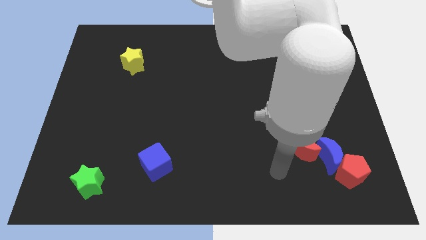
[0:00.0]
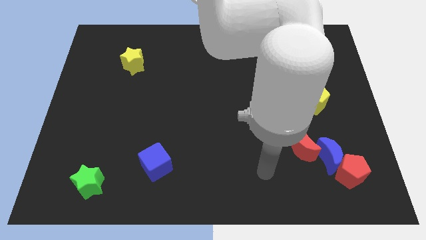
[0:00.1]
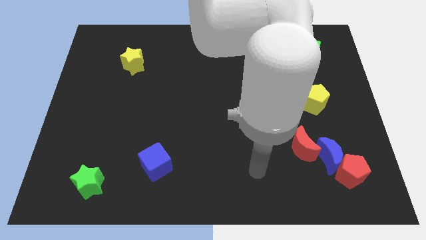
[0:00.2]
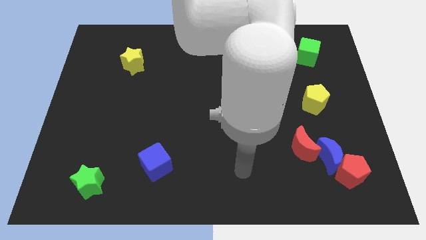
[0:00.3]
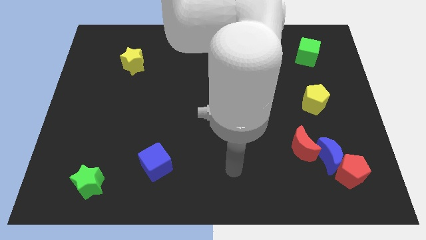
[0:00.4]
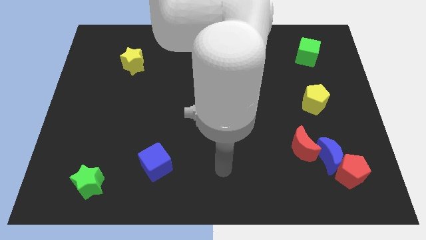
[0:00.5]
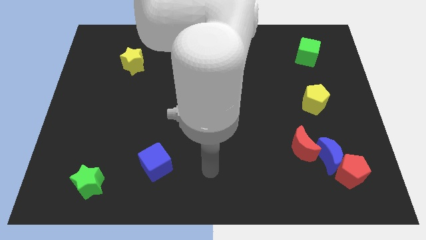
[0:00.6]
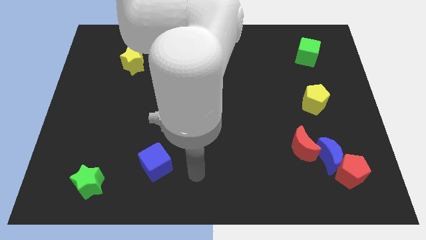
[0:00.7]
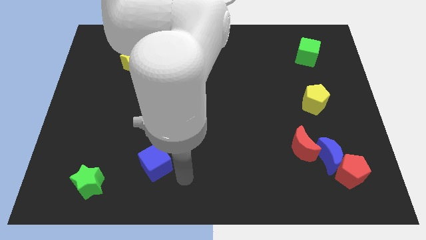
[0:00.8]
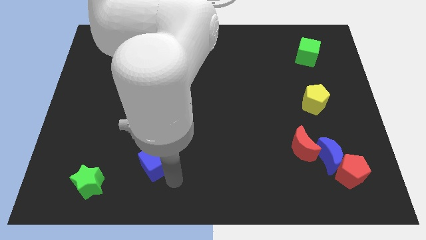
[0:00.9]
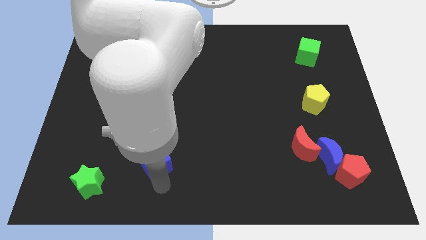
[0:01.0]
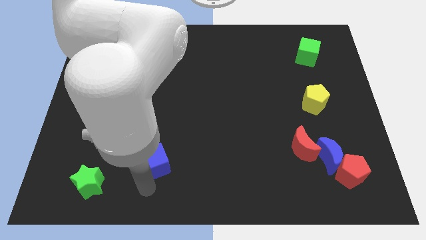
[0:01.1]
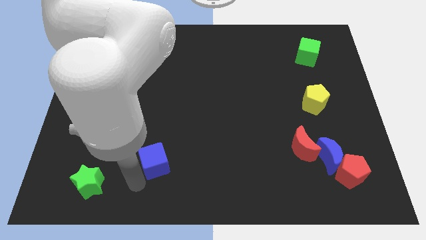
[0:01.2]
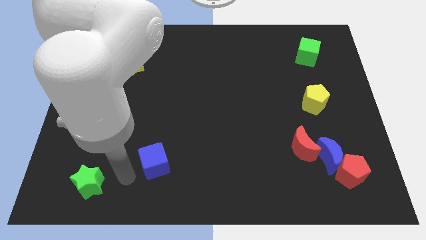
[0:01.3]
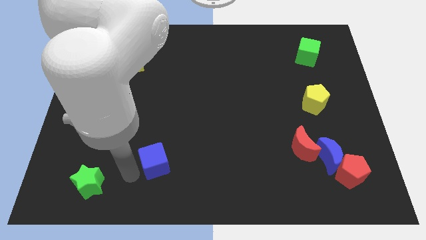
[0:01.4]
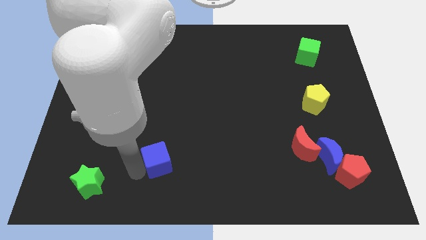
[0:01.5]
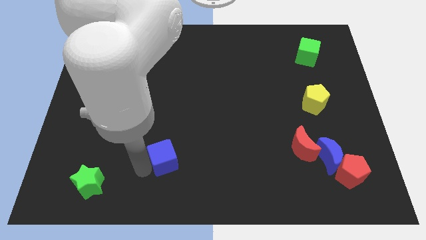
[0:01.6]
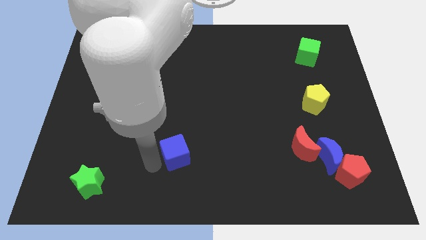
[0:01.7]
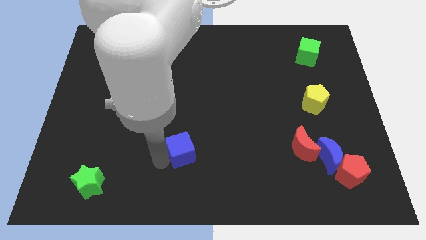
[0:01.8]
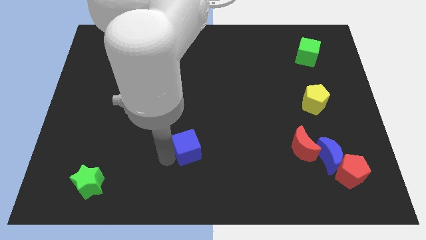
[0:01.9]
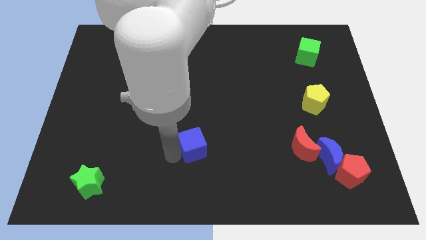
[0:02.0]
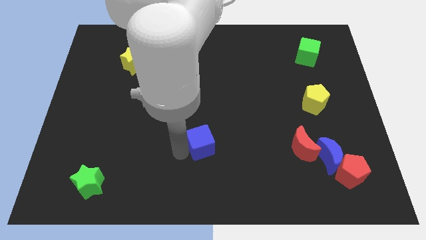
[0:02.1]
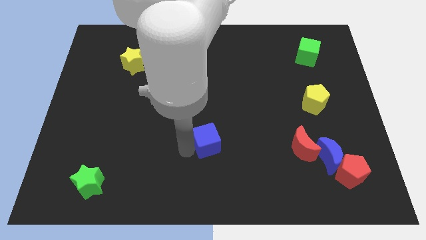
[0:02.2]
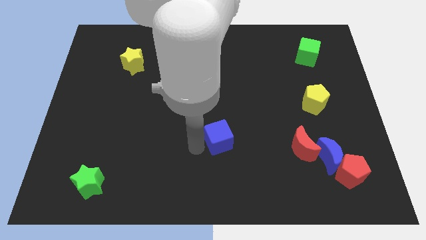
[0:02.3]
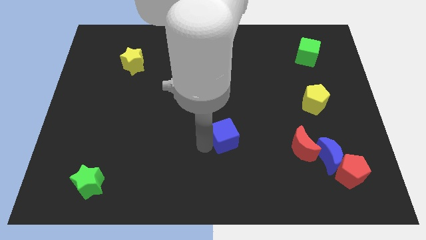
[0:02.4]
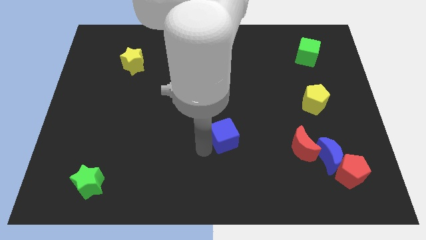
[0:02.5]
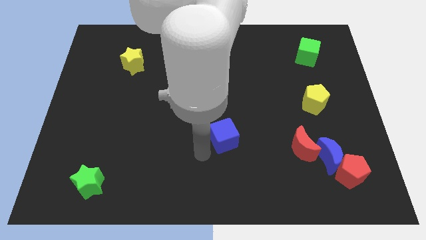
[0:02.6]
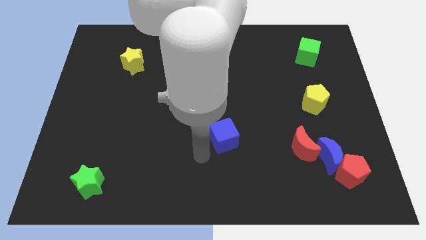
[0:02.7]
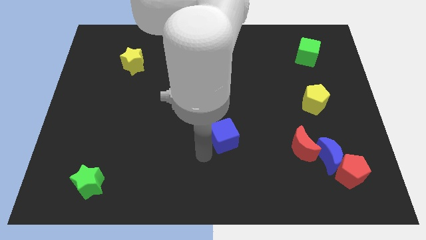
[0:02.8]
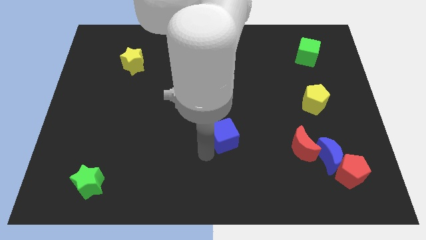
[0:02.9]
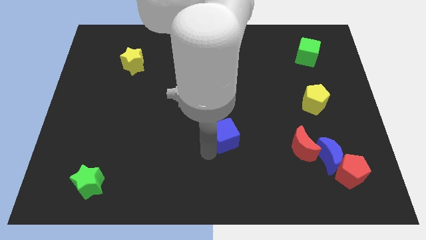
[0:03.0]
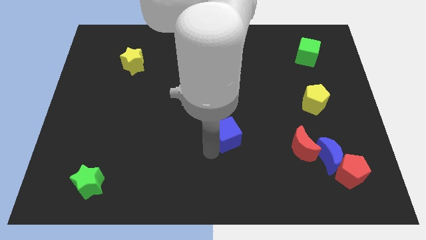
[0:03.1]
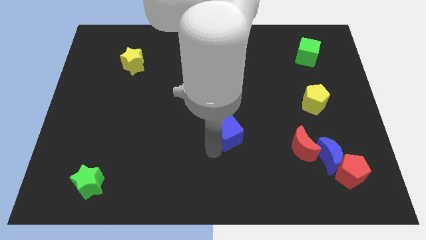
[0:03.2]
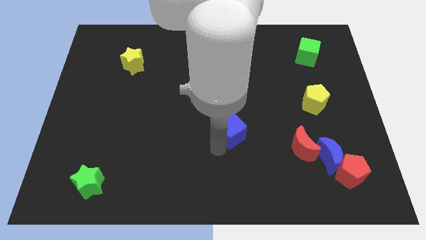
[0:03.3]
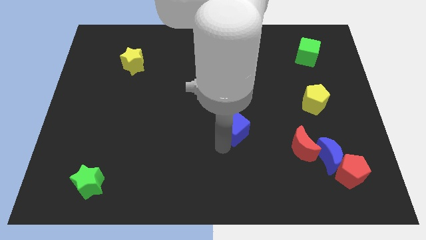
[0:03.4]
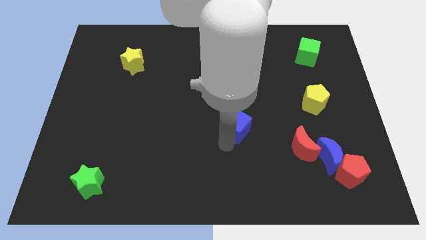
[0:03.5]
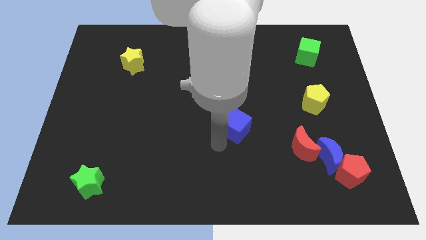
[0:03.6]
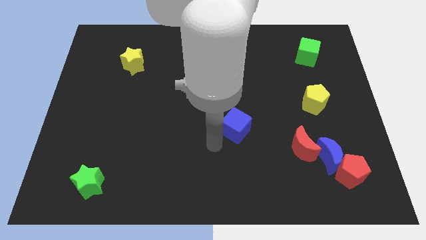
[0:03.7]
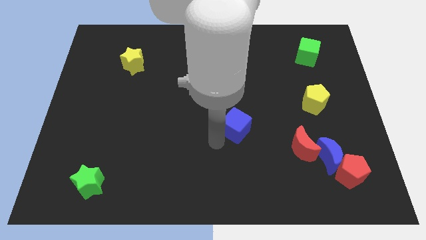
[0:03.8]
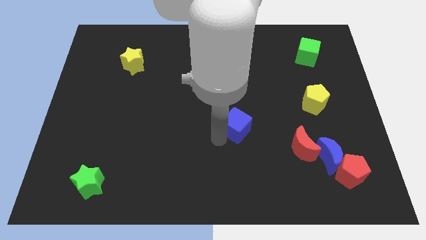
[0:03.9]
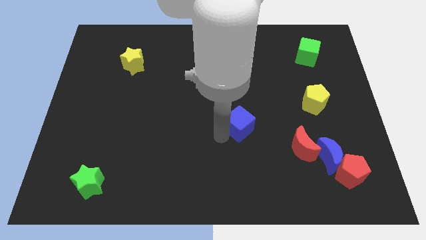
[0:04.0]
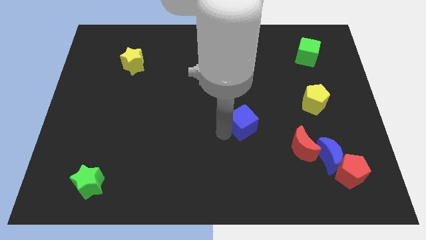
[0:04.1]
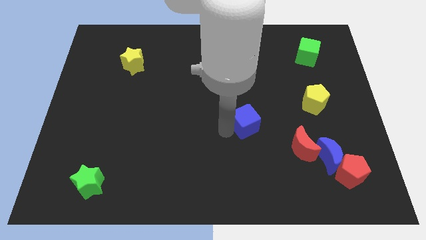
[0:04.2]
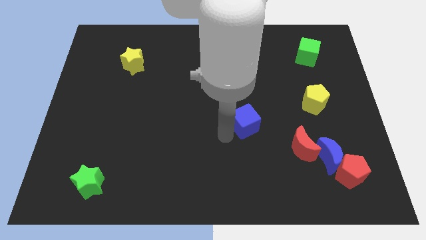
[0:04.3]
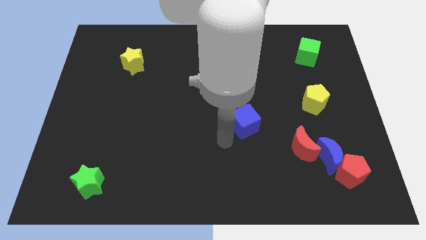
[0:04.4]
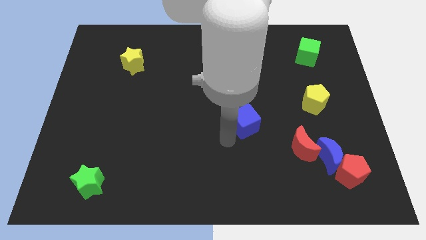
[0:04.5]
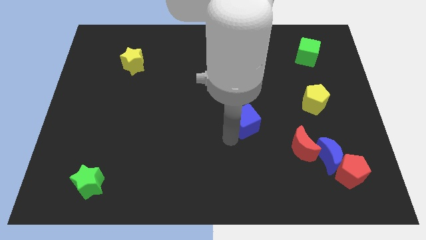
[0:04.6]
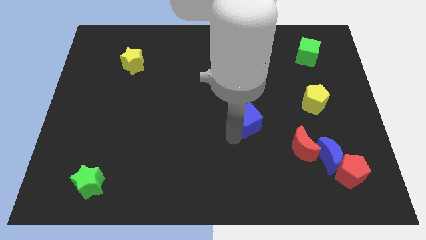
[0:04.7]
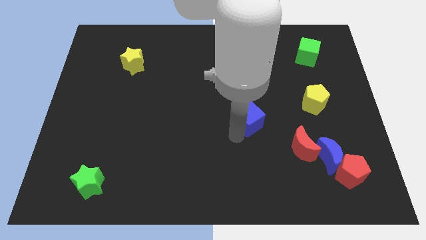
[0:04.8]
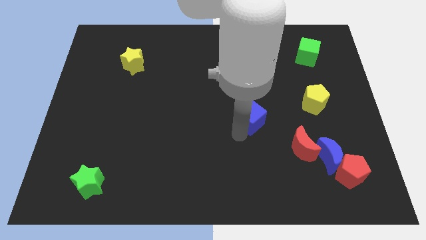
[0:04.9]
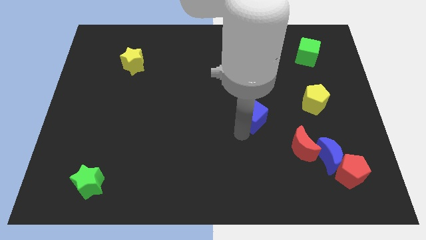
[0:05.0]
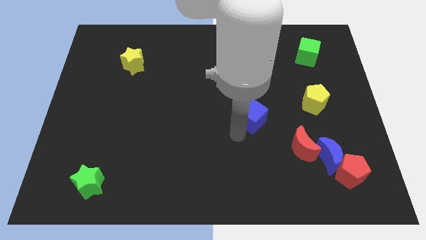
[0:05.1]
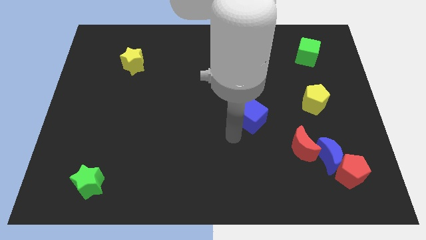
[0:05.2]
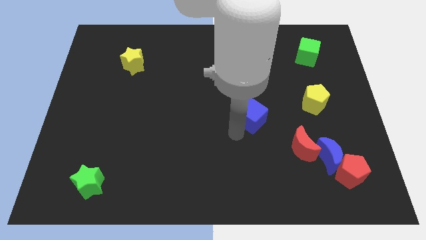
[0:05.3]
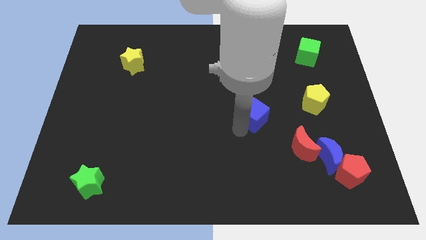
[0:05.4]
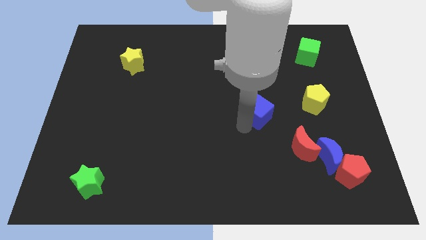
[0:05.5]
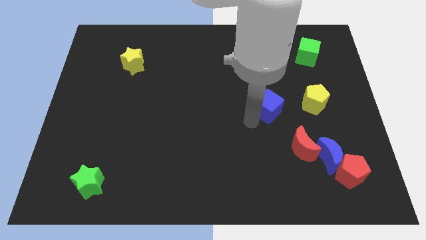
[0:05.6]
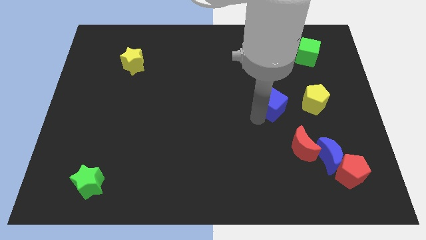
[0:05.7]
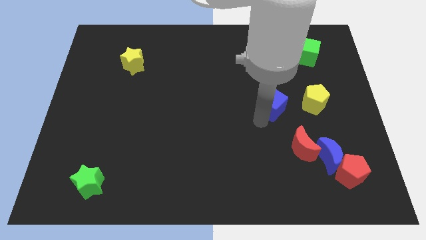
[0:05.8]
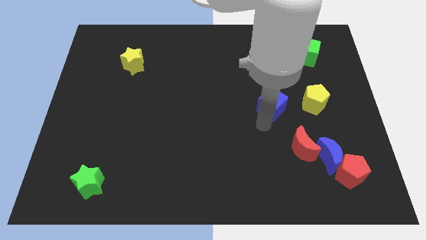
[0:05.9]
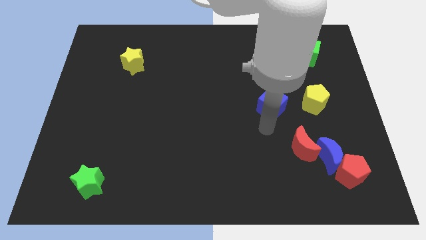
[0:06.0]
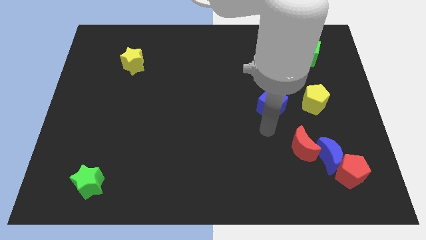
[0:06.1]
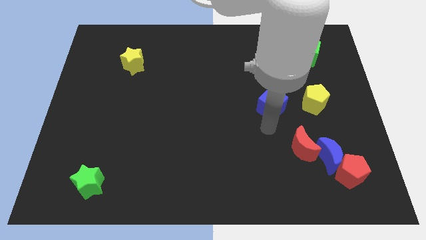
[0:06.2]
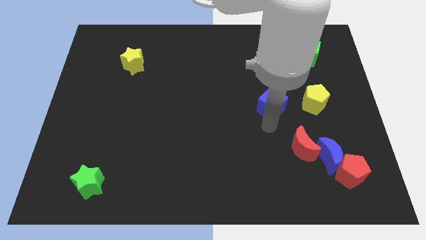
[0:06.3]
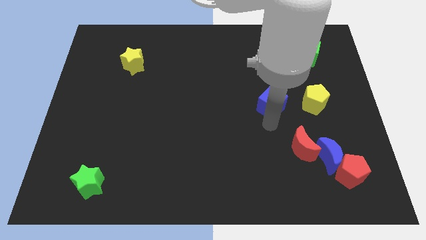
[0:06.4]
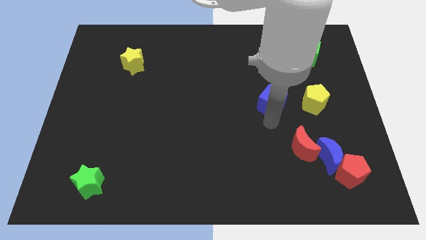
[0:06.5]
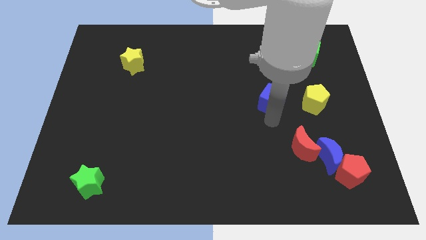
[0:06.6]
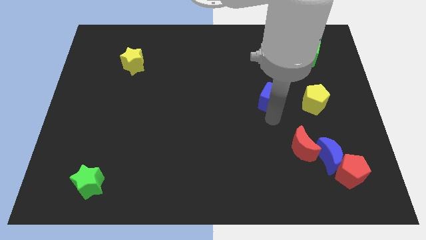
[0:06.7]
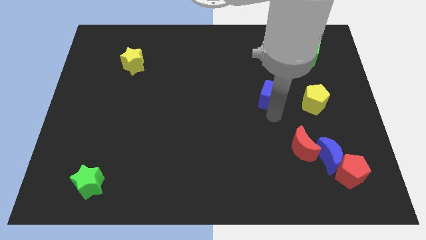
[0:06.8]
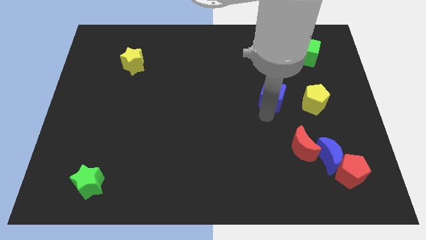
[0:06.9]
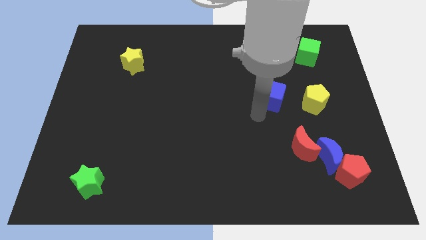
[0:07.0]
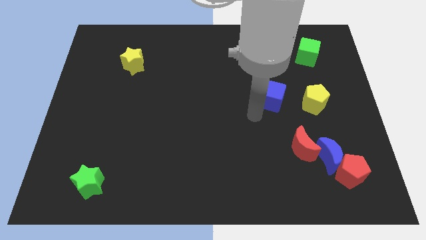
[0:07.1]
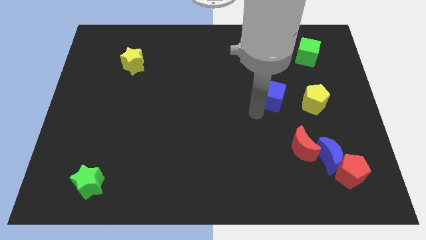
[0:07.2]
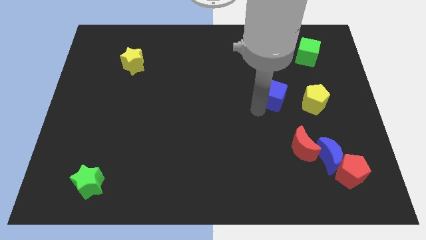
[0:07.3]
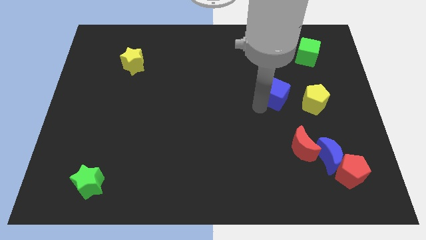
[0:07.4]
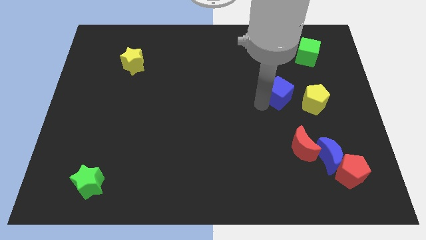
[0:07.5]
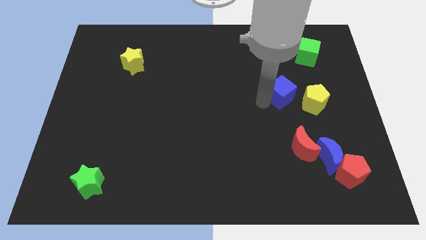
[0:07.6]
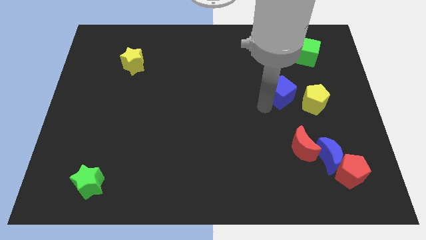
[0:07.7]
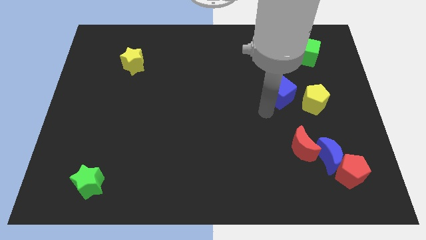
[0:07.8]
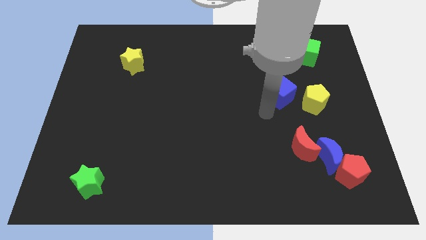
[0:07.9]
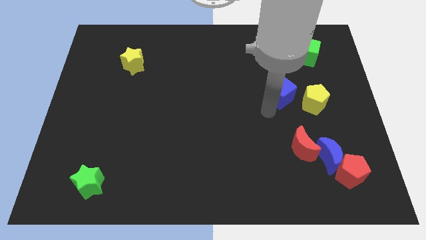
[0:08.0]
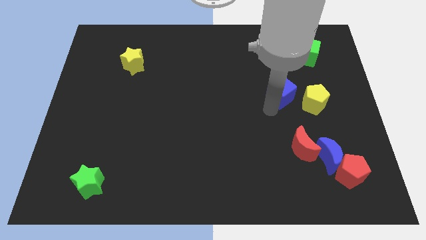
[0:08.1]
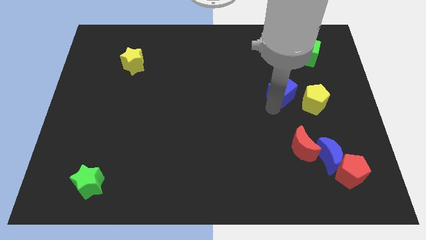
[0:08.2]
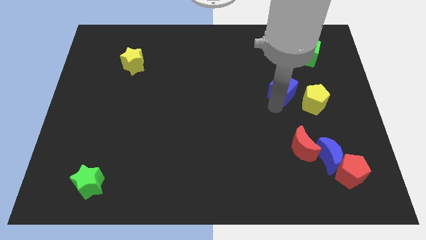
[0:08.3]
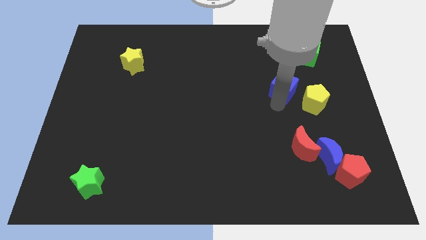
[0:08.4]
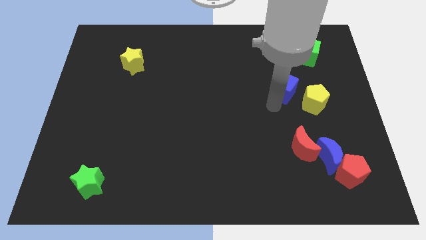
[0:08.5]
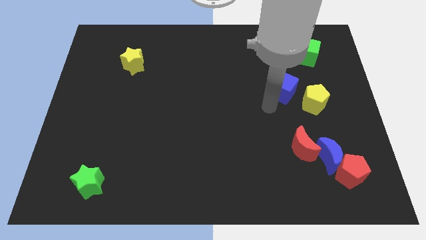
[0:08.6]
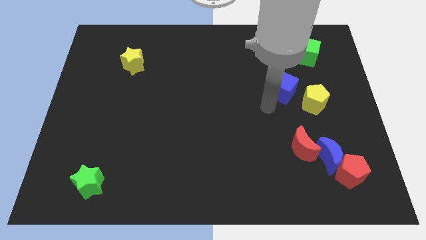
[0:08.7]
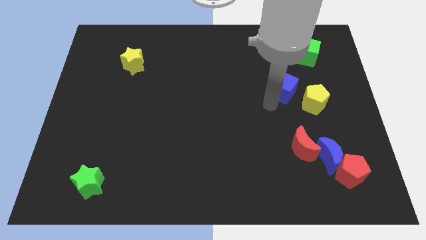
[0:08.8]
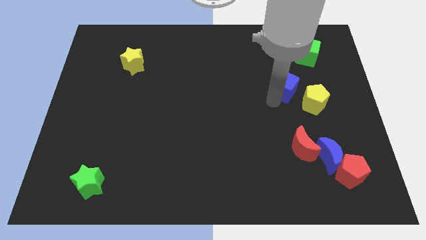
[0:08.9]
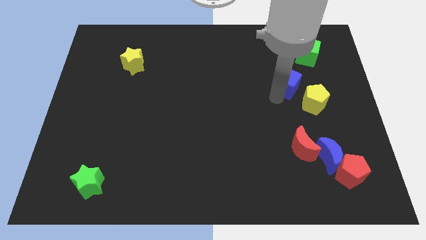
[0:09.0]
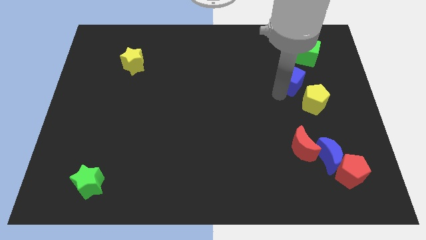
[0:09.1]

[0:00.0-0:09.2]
slide the blue cube above the yellow pentagon
